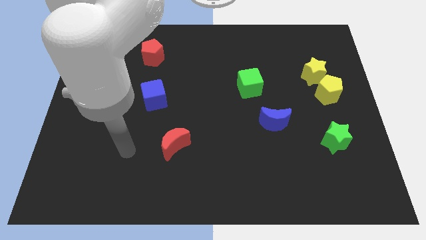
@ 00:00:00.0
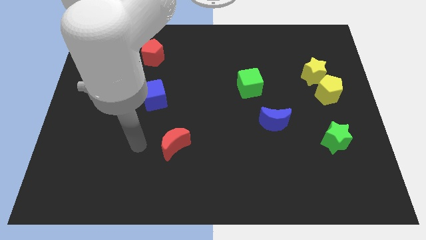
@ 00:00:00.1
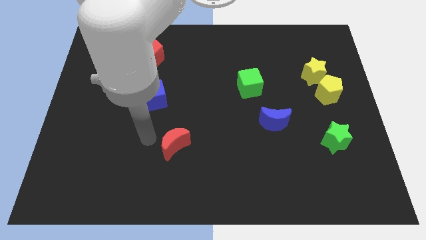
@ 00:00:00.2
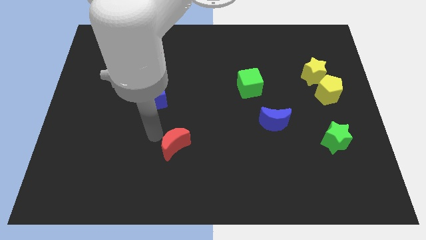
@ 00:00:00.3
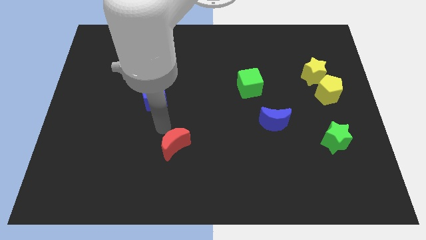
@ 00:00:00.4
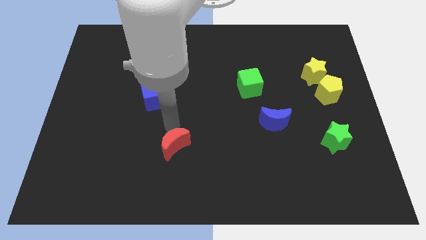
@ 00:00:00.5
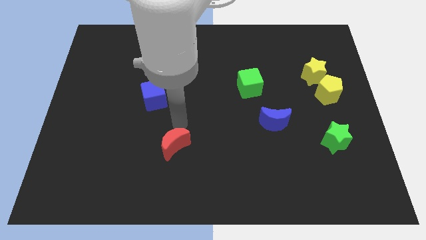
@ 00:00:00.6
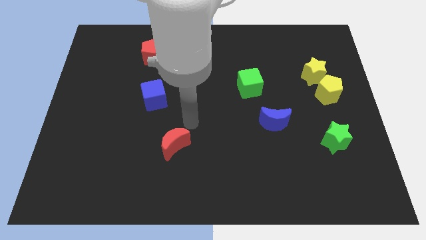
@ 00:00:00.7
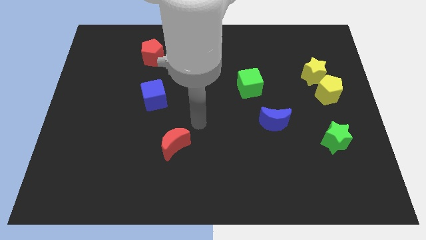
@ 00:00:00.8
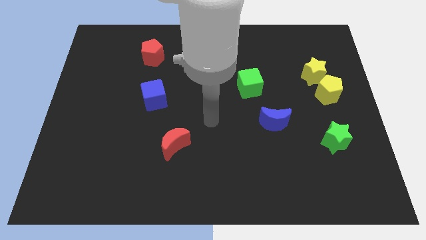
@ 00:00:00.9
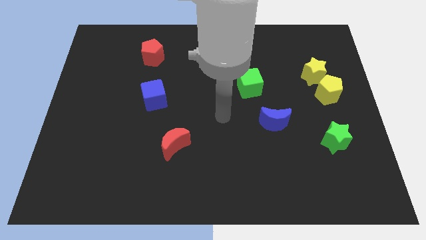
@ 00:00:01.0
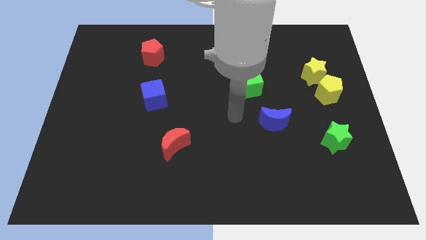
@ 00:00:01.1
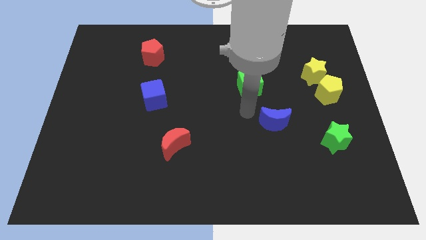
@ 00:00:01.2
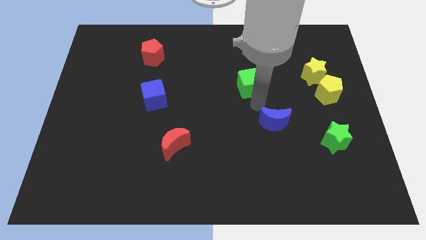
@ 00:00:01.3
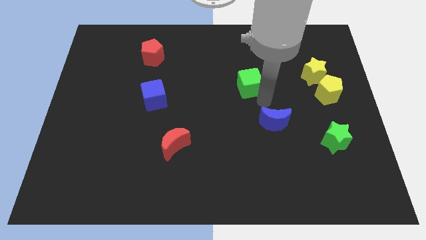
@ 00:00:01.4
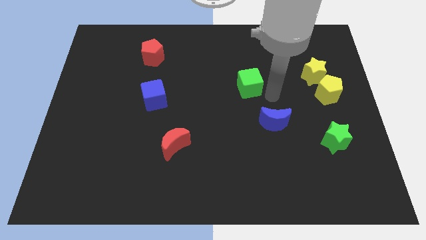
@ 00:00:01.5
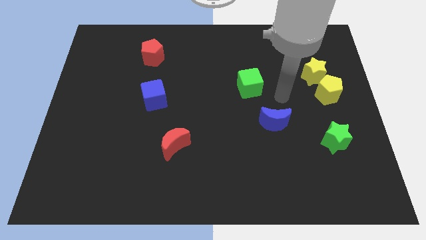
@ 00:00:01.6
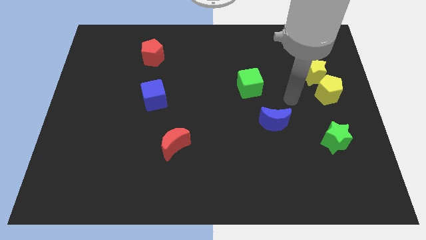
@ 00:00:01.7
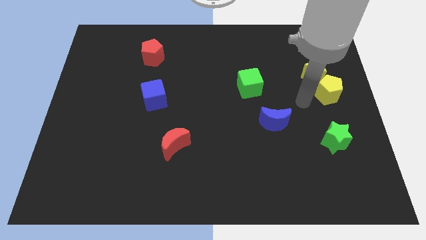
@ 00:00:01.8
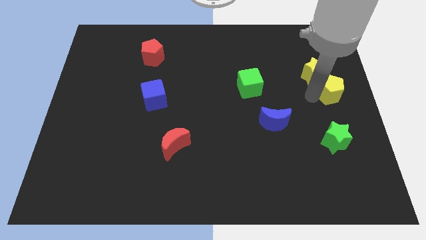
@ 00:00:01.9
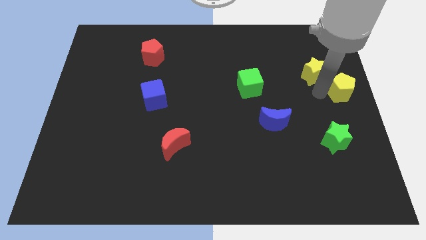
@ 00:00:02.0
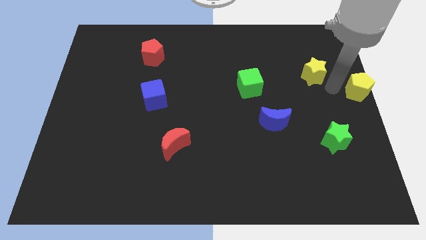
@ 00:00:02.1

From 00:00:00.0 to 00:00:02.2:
separate the yellow star from the yellow pentagon

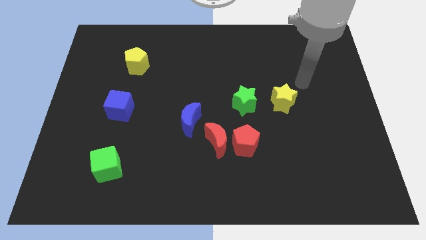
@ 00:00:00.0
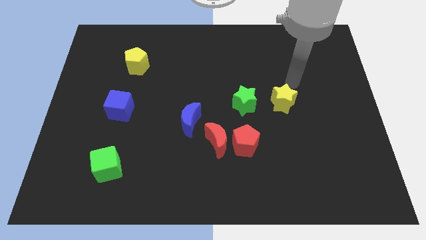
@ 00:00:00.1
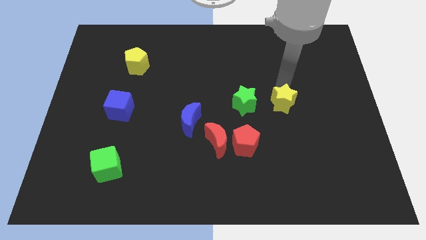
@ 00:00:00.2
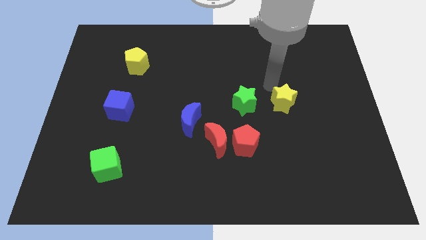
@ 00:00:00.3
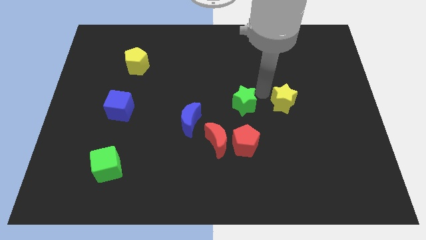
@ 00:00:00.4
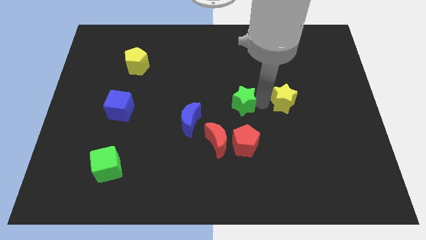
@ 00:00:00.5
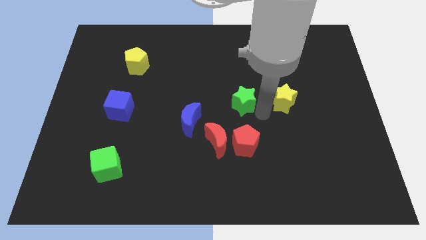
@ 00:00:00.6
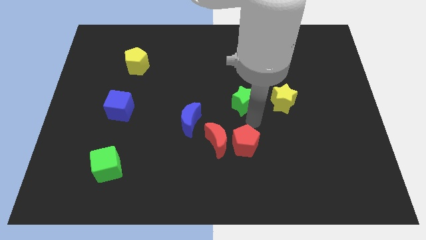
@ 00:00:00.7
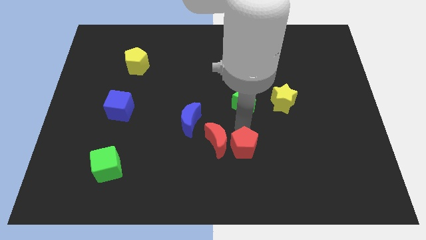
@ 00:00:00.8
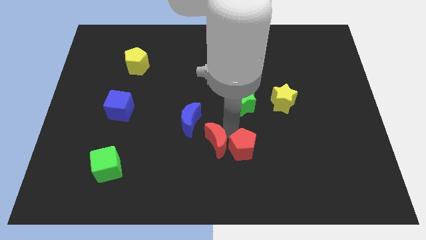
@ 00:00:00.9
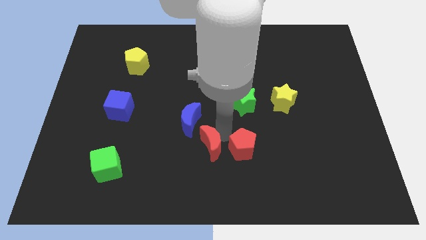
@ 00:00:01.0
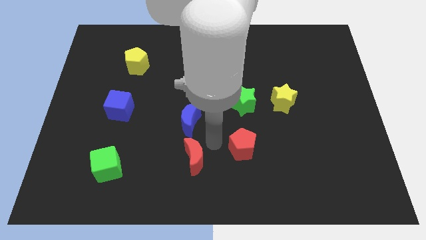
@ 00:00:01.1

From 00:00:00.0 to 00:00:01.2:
pull the red pentagon apart from the red moon

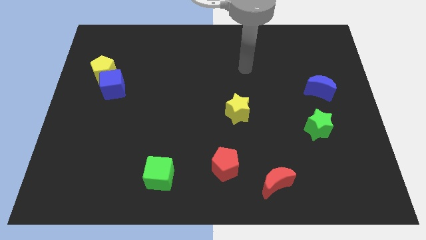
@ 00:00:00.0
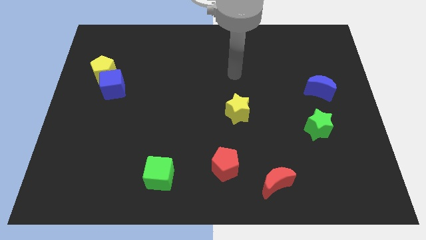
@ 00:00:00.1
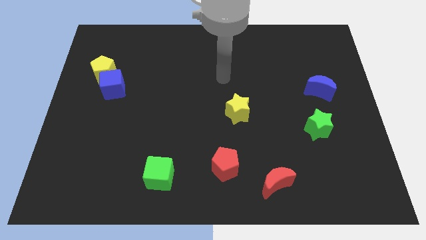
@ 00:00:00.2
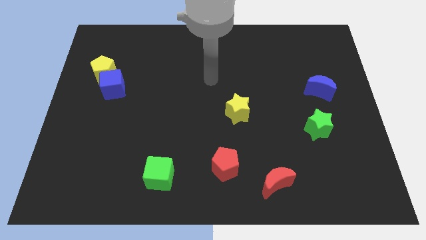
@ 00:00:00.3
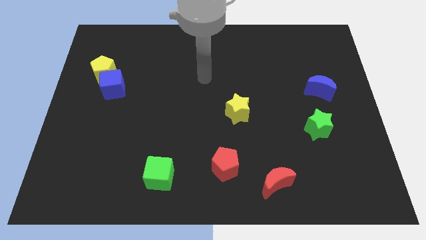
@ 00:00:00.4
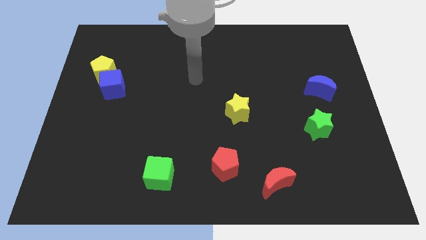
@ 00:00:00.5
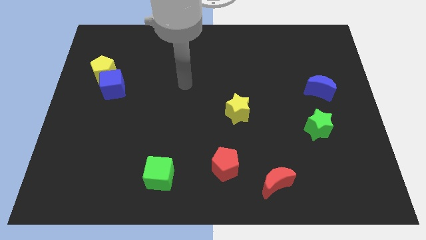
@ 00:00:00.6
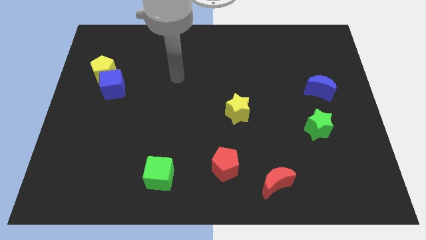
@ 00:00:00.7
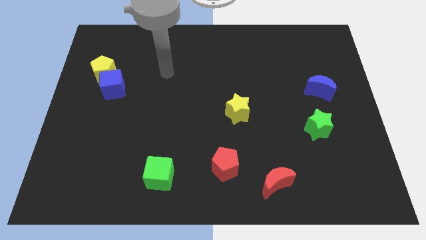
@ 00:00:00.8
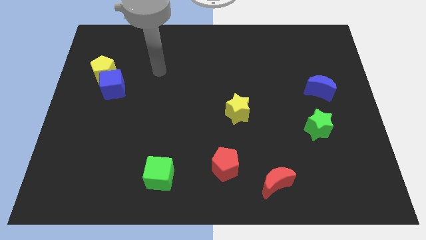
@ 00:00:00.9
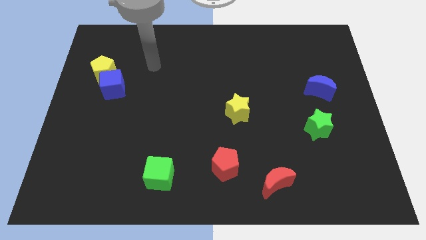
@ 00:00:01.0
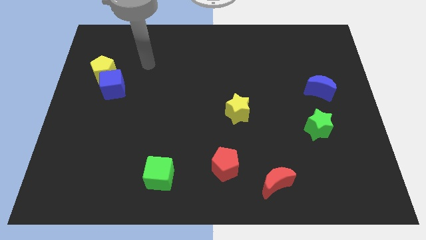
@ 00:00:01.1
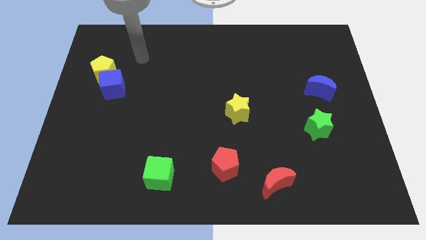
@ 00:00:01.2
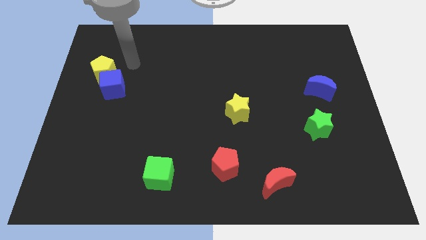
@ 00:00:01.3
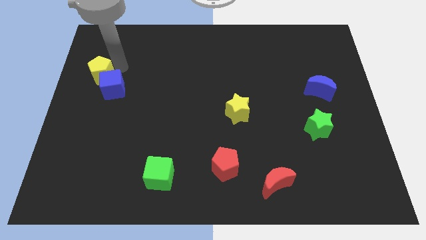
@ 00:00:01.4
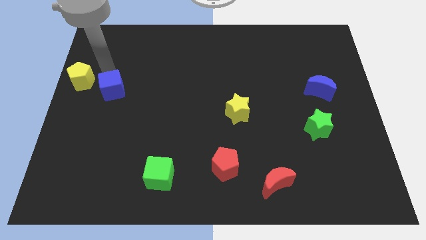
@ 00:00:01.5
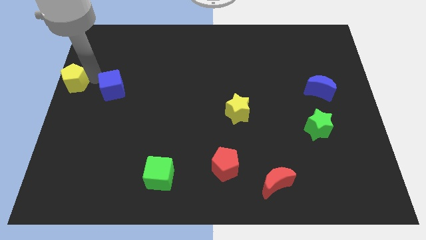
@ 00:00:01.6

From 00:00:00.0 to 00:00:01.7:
pull the blue cube apart from the yellow pentagon

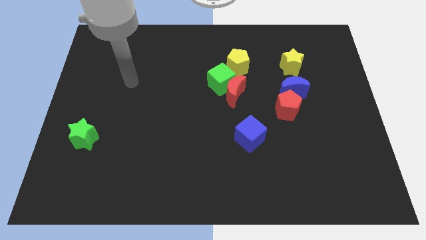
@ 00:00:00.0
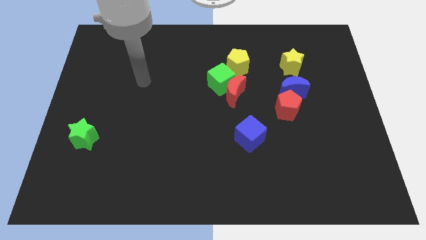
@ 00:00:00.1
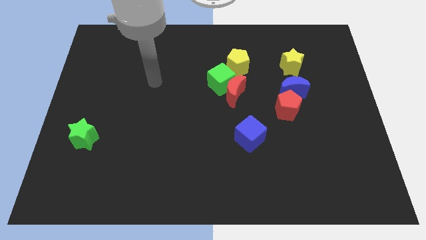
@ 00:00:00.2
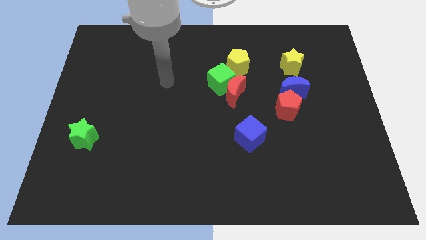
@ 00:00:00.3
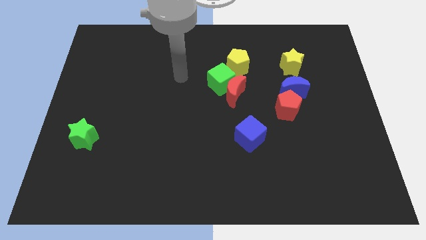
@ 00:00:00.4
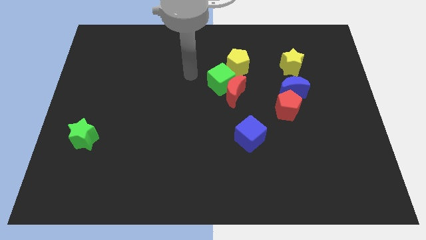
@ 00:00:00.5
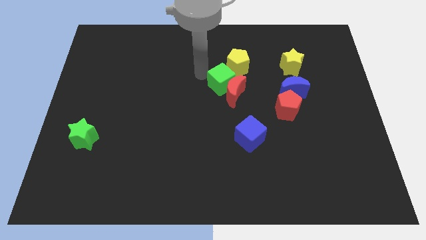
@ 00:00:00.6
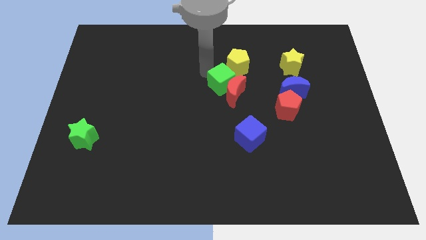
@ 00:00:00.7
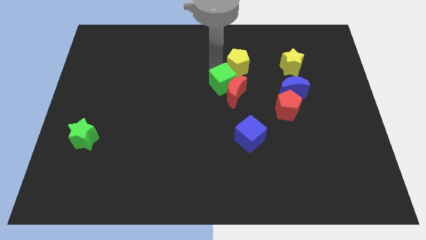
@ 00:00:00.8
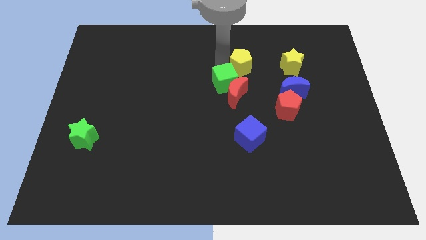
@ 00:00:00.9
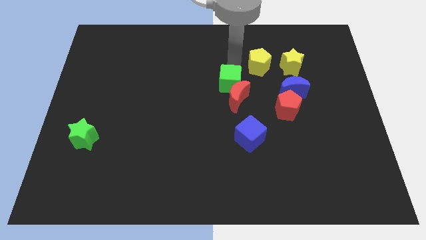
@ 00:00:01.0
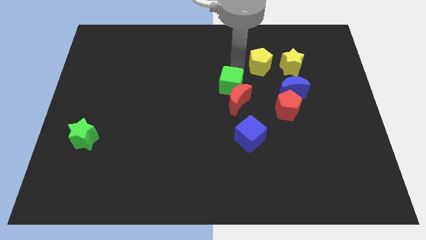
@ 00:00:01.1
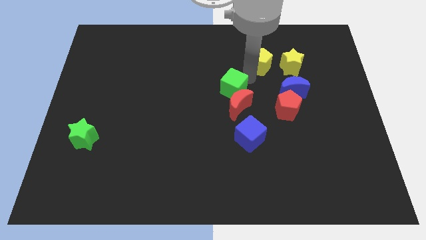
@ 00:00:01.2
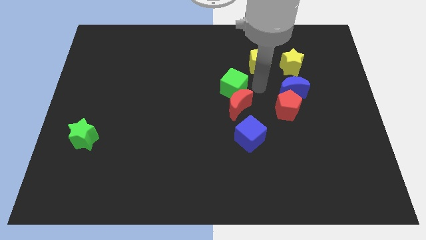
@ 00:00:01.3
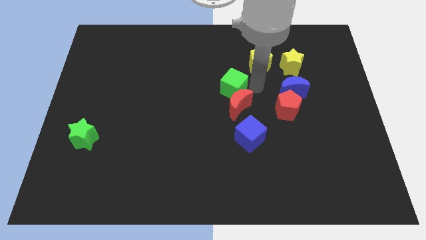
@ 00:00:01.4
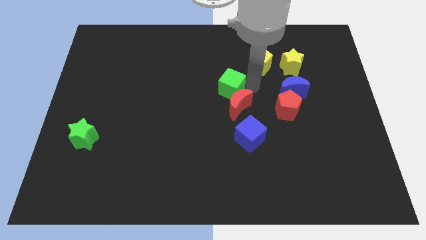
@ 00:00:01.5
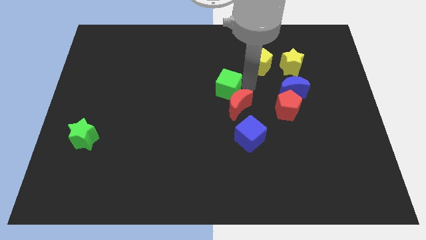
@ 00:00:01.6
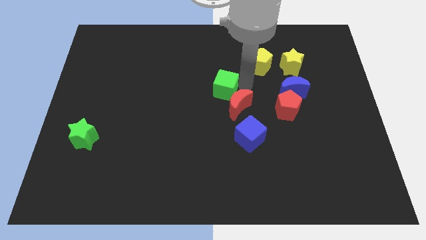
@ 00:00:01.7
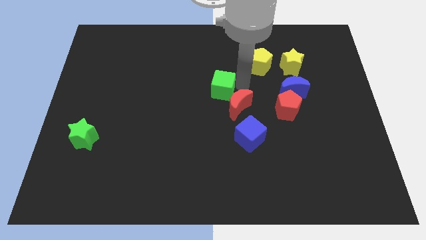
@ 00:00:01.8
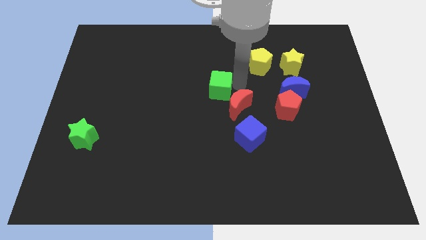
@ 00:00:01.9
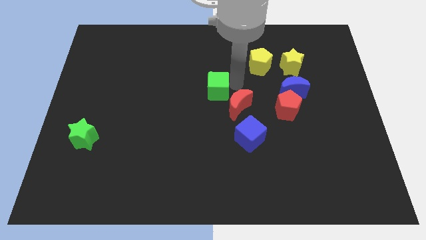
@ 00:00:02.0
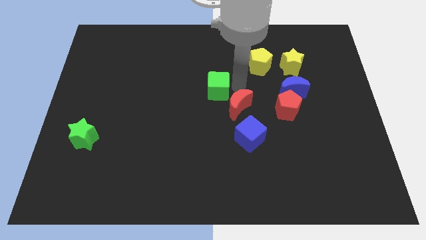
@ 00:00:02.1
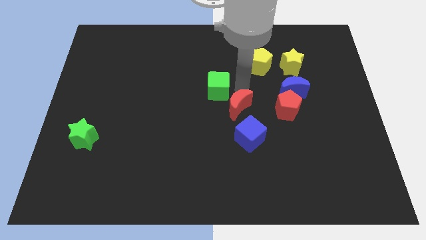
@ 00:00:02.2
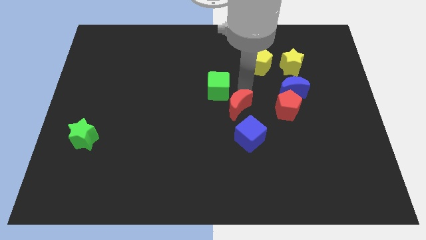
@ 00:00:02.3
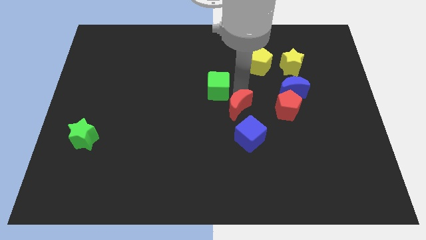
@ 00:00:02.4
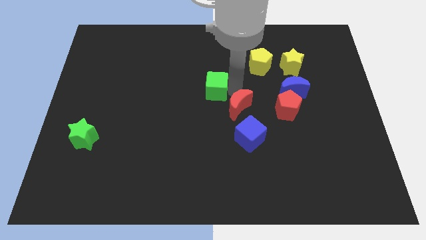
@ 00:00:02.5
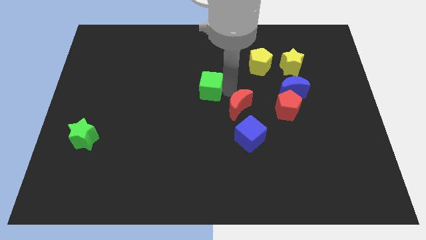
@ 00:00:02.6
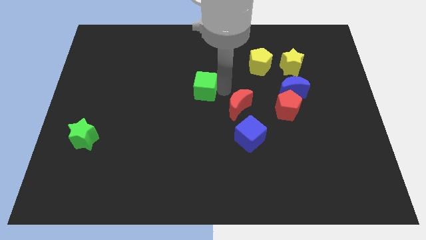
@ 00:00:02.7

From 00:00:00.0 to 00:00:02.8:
move the green cube away from the red moon and yellow pentagon

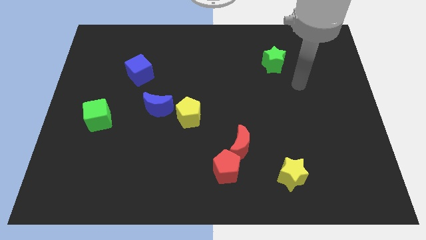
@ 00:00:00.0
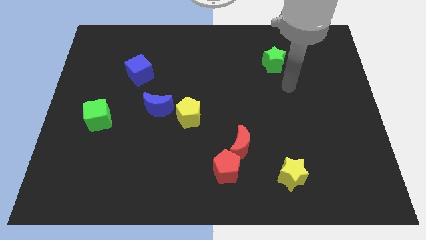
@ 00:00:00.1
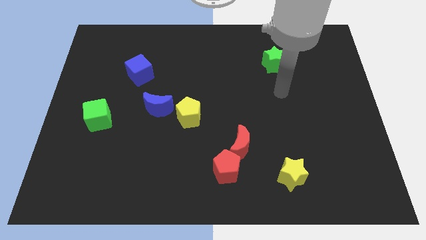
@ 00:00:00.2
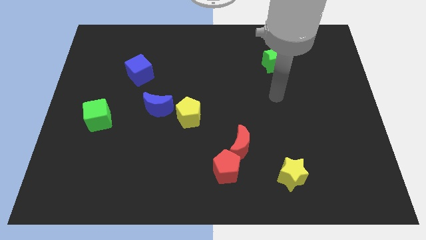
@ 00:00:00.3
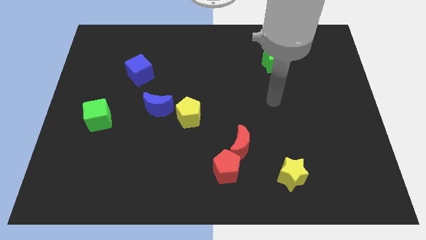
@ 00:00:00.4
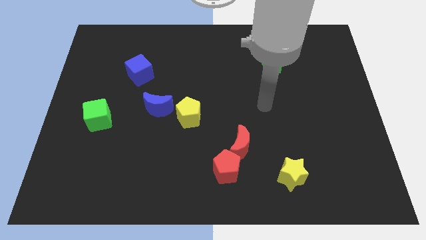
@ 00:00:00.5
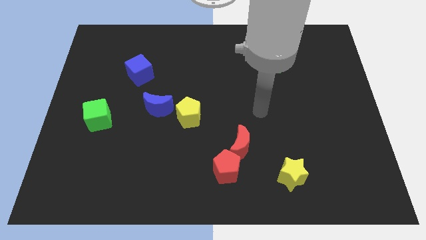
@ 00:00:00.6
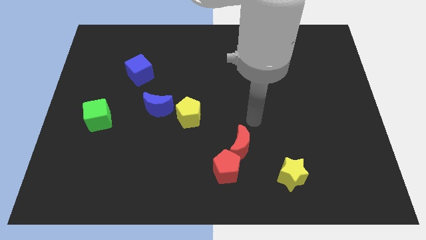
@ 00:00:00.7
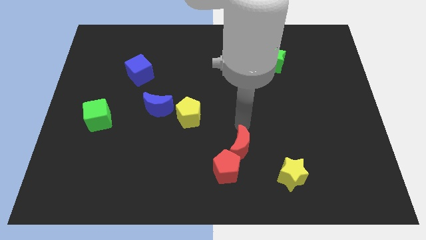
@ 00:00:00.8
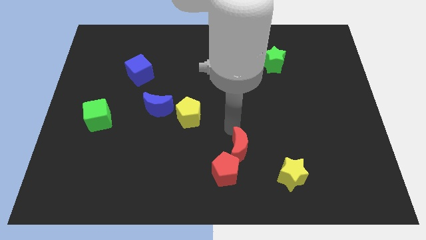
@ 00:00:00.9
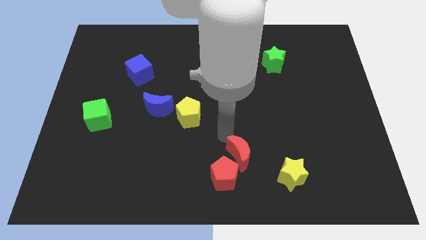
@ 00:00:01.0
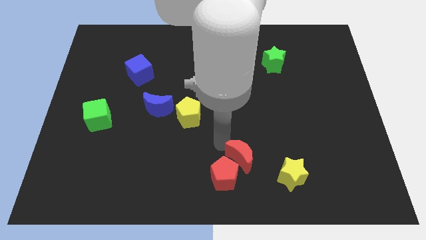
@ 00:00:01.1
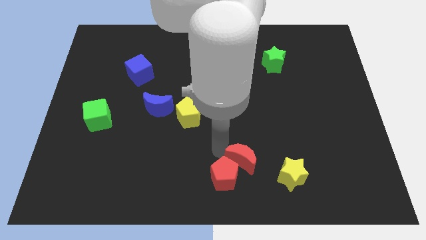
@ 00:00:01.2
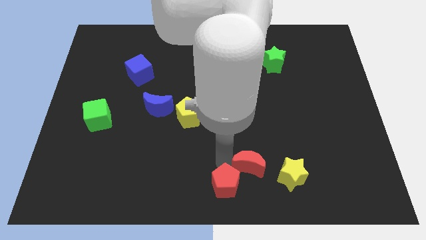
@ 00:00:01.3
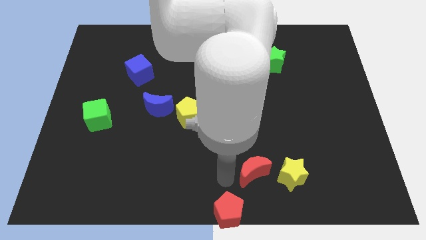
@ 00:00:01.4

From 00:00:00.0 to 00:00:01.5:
separate the red moon from the red pentagon
